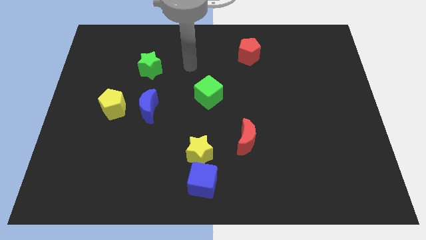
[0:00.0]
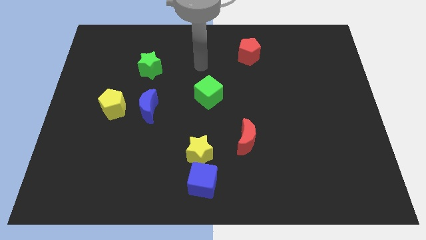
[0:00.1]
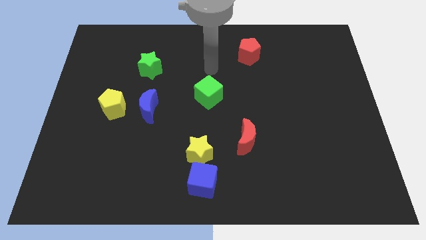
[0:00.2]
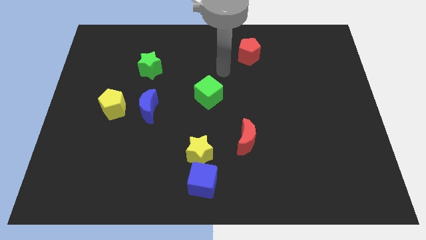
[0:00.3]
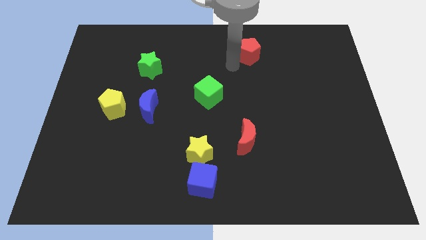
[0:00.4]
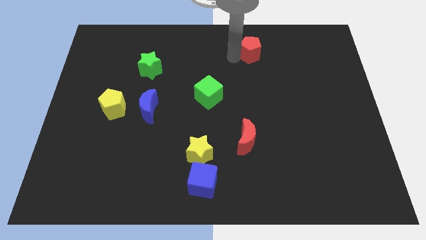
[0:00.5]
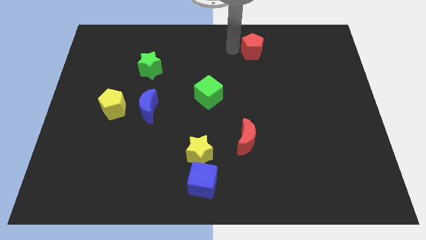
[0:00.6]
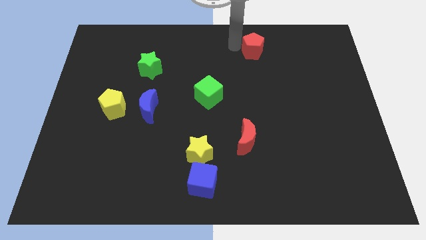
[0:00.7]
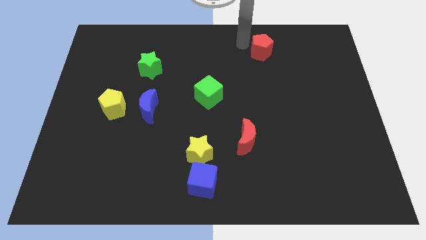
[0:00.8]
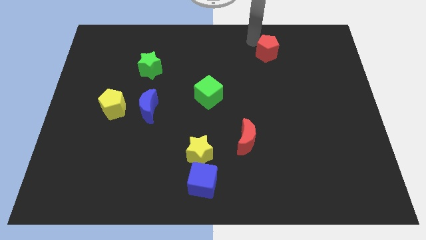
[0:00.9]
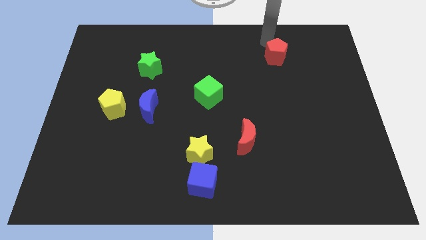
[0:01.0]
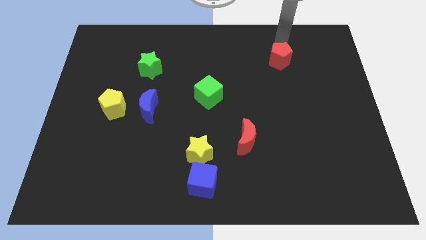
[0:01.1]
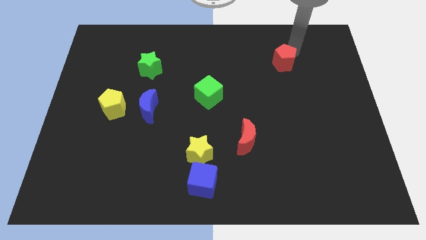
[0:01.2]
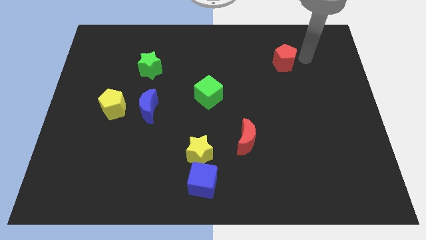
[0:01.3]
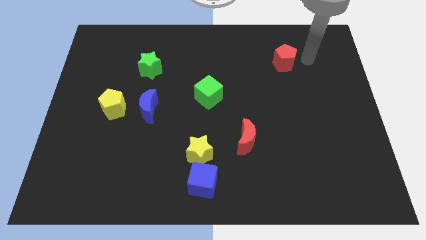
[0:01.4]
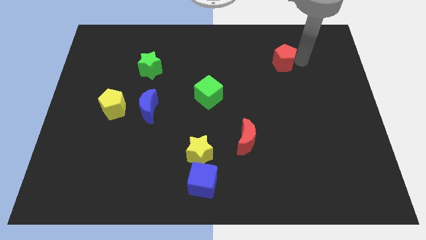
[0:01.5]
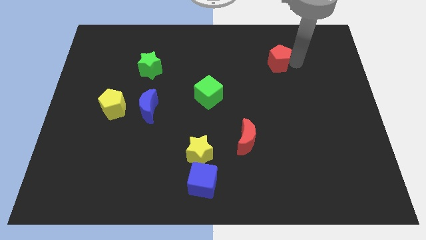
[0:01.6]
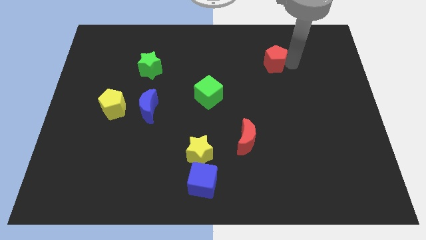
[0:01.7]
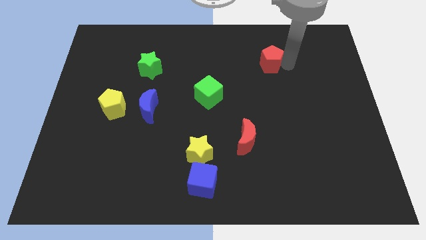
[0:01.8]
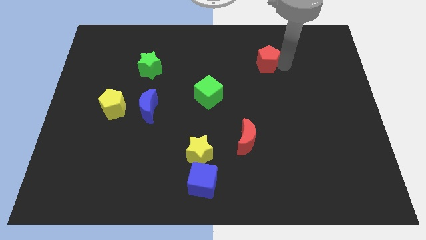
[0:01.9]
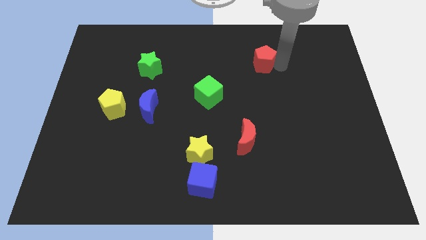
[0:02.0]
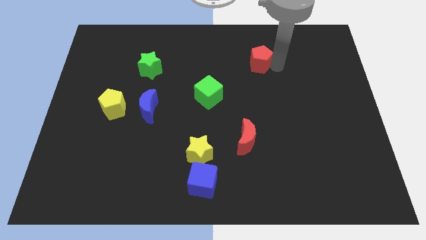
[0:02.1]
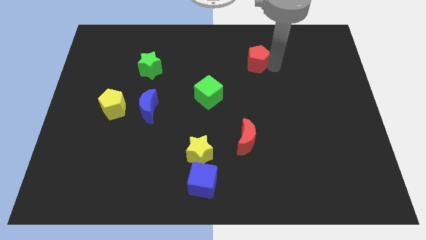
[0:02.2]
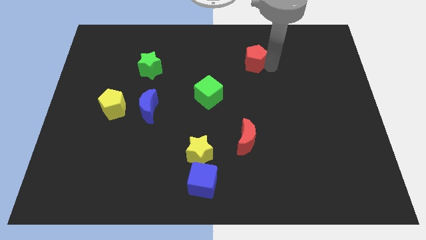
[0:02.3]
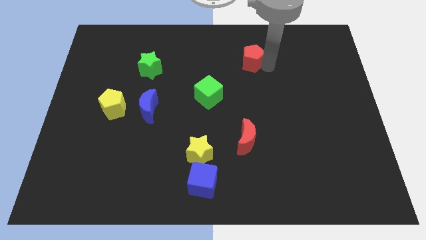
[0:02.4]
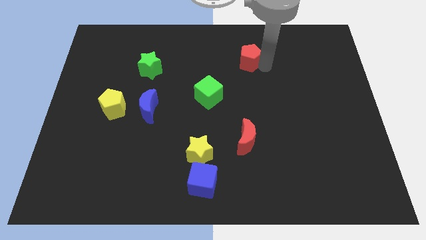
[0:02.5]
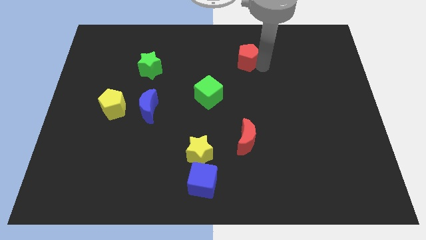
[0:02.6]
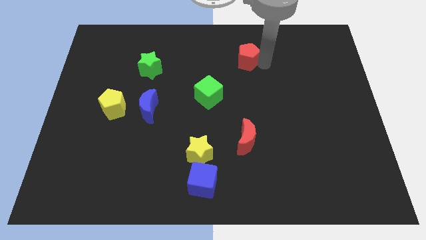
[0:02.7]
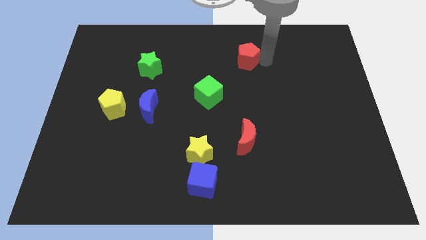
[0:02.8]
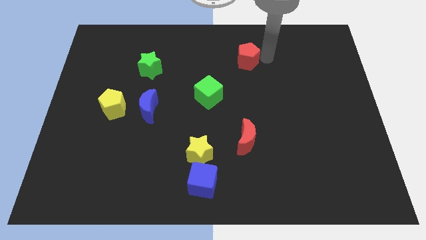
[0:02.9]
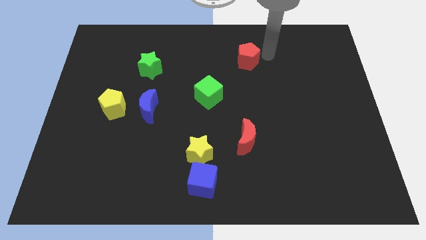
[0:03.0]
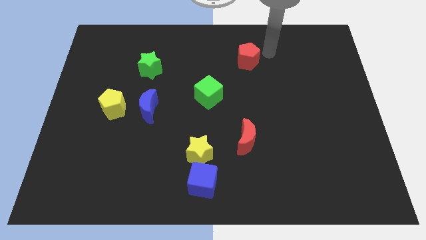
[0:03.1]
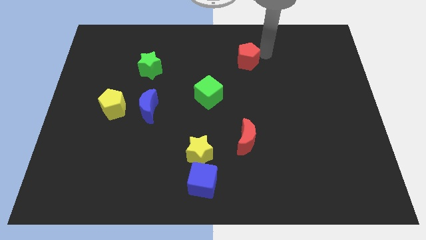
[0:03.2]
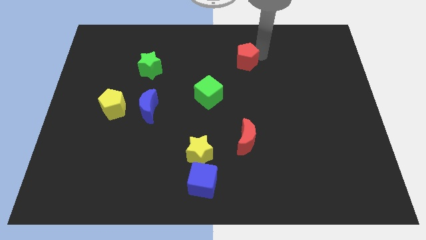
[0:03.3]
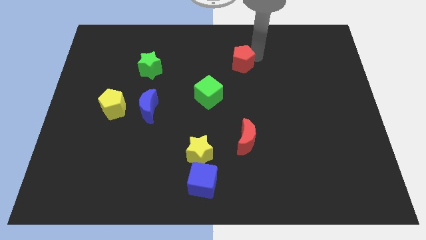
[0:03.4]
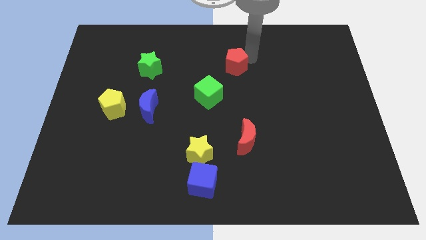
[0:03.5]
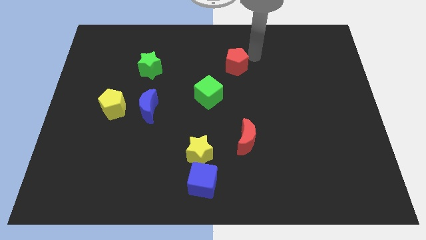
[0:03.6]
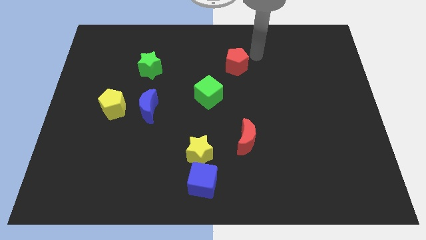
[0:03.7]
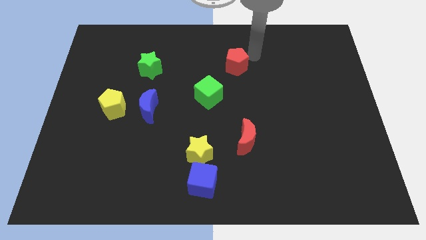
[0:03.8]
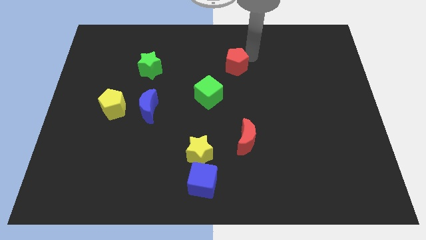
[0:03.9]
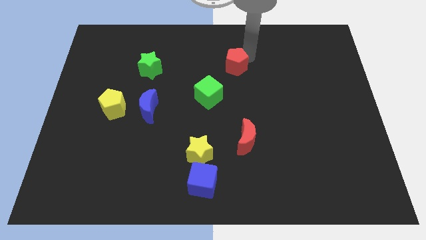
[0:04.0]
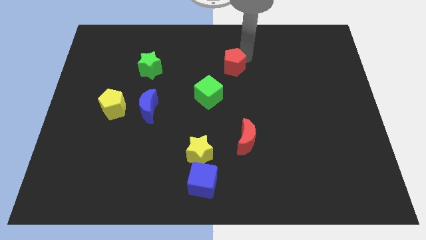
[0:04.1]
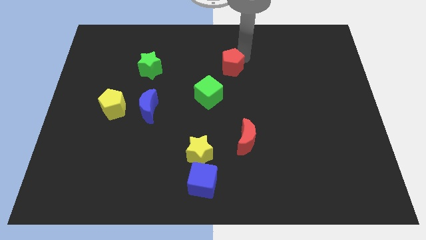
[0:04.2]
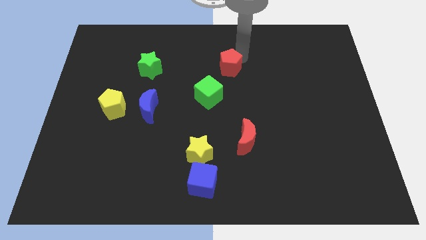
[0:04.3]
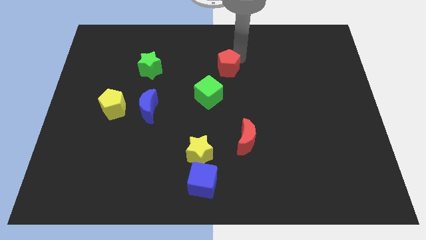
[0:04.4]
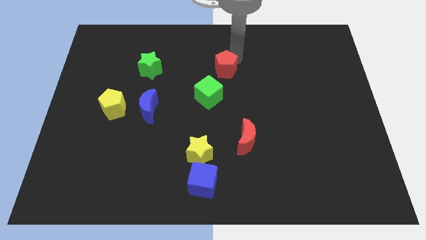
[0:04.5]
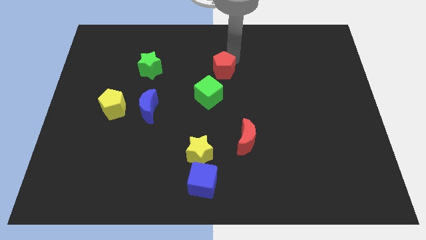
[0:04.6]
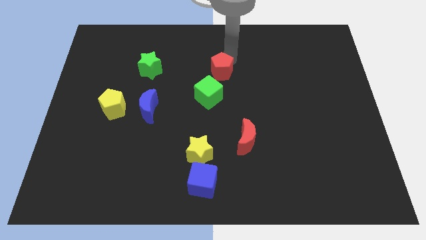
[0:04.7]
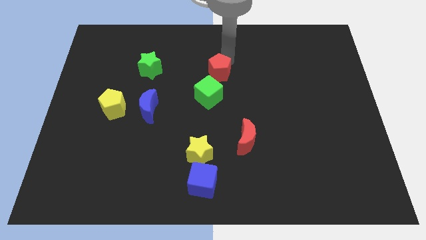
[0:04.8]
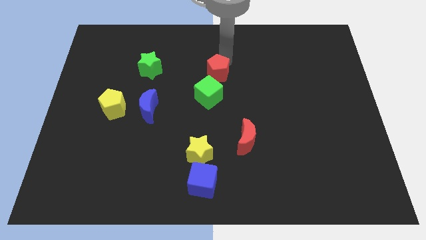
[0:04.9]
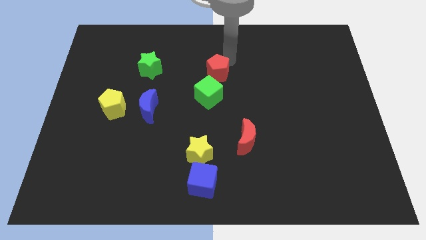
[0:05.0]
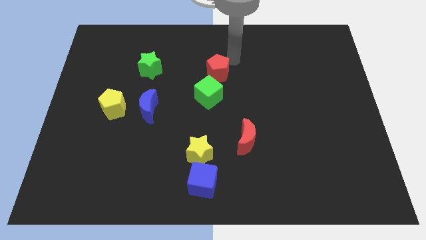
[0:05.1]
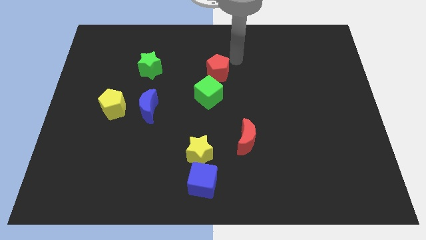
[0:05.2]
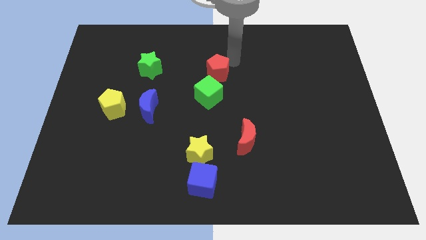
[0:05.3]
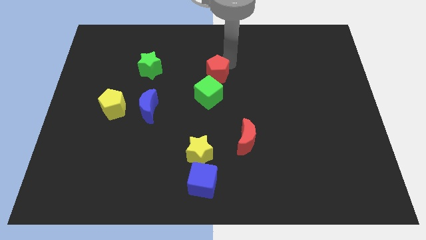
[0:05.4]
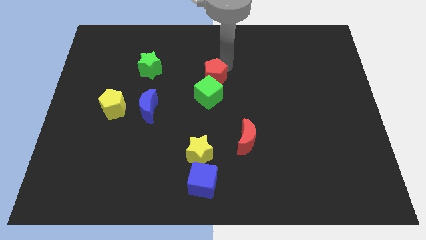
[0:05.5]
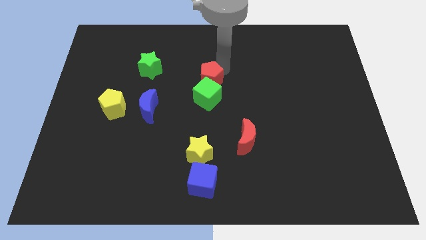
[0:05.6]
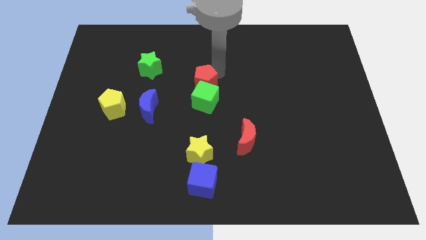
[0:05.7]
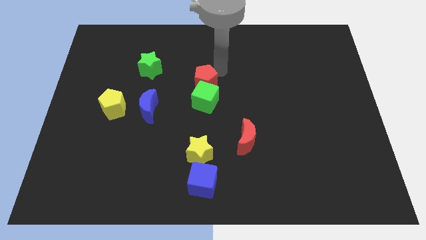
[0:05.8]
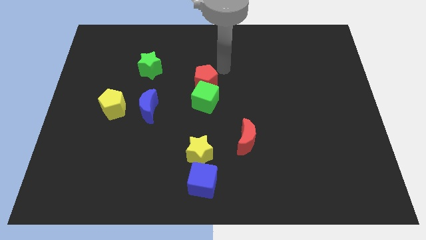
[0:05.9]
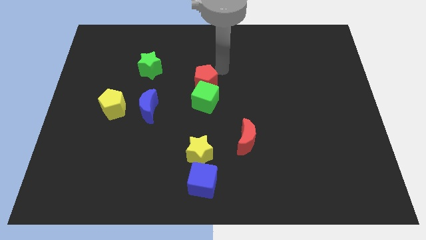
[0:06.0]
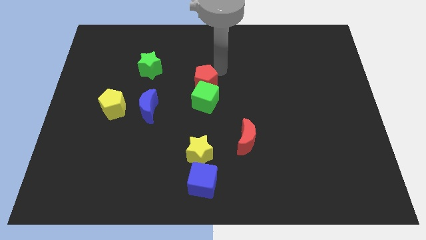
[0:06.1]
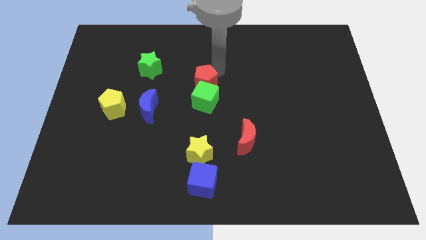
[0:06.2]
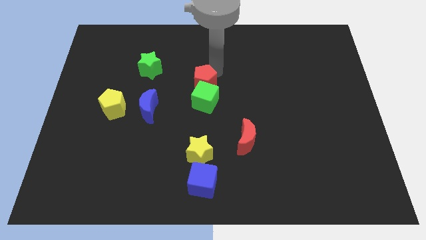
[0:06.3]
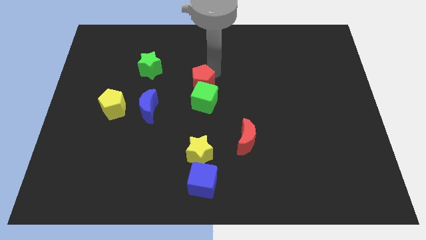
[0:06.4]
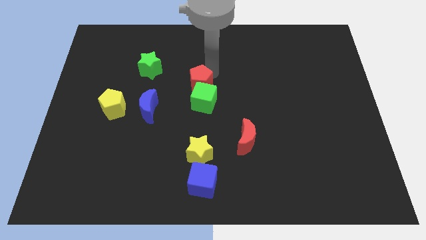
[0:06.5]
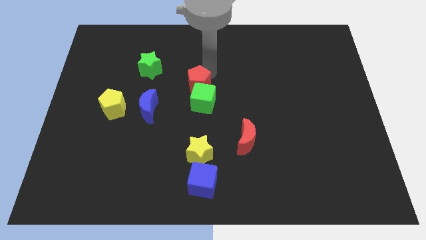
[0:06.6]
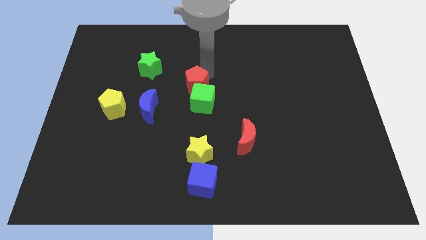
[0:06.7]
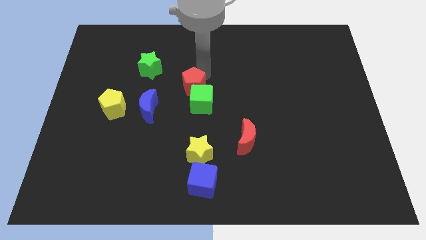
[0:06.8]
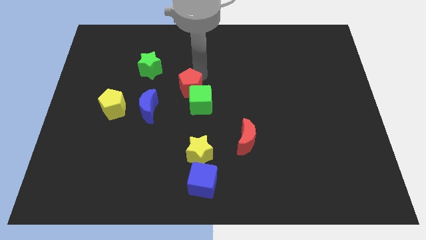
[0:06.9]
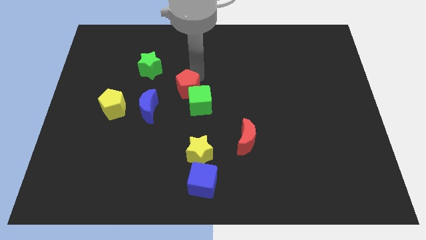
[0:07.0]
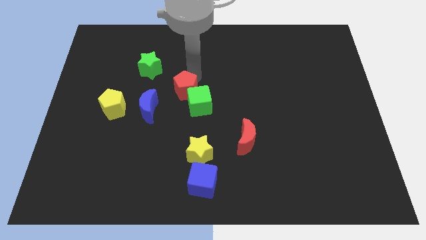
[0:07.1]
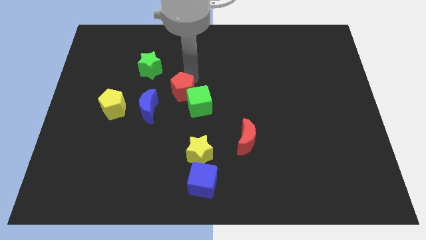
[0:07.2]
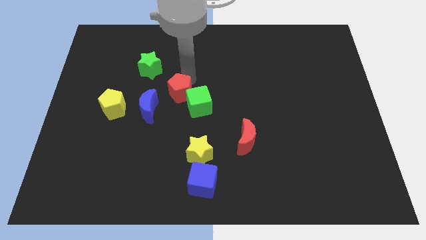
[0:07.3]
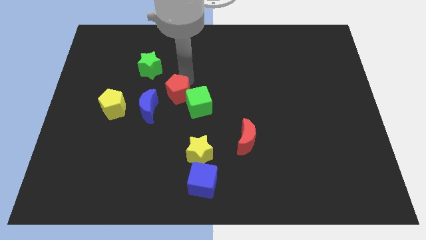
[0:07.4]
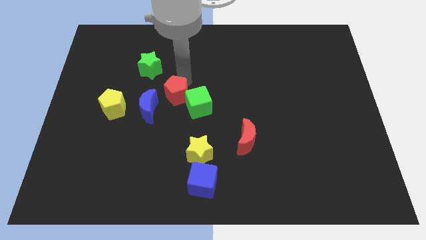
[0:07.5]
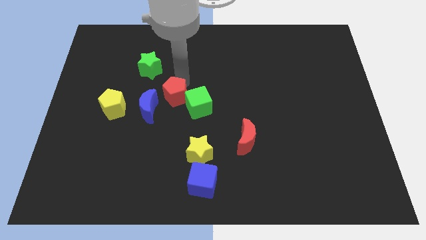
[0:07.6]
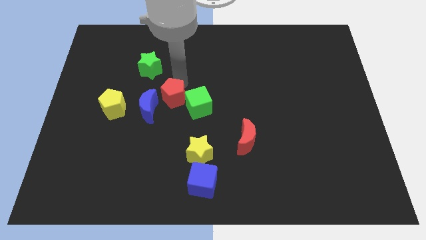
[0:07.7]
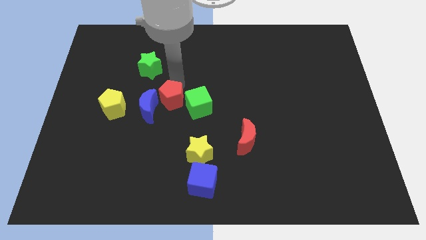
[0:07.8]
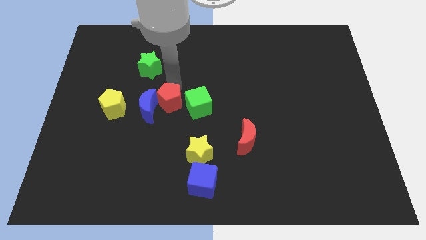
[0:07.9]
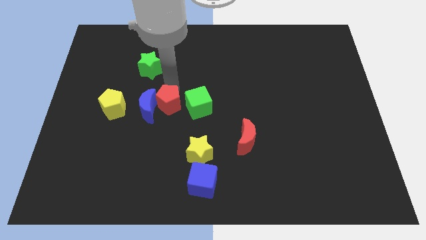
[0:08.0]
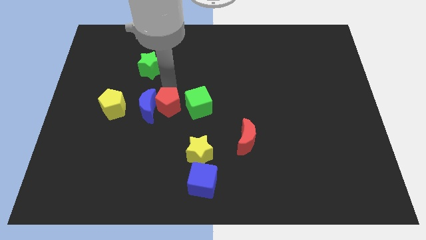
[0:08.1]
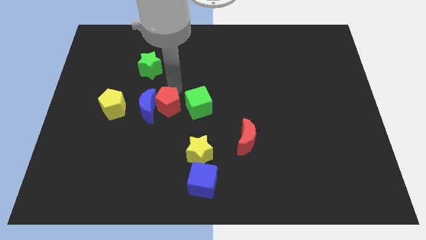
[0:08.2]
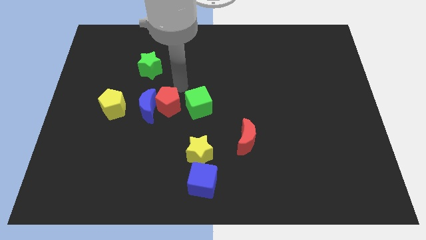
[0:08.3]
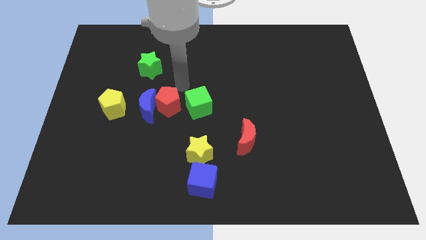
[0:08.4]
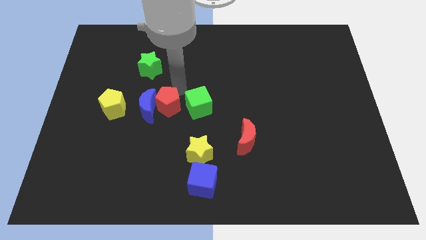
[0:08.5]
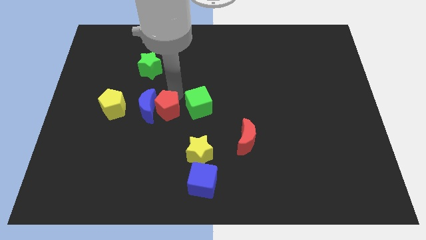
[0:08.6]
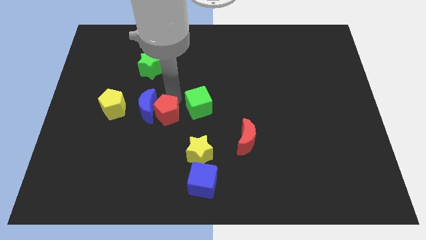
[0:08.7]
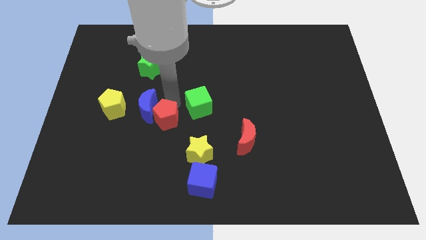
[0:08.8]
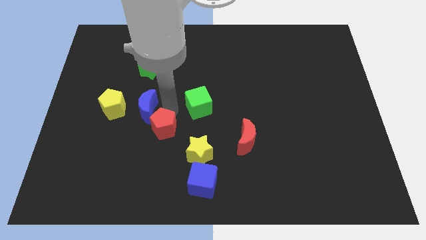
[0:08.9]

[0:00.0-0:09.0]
move the red pentagon below the blue moon
